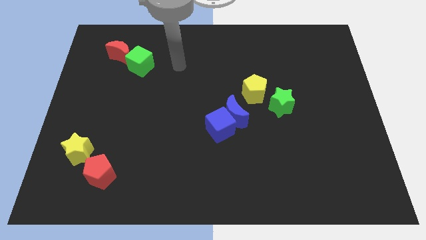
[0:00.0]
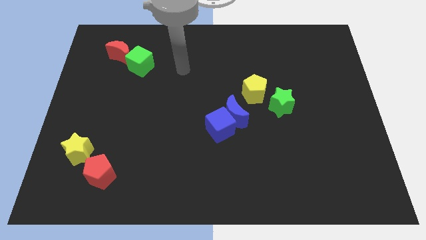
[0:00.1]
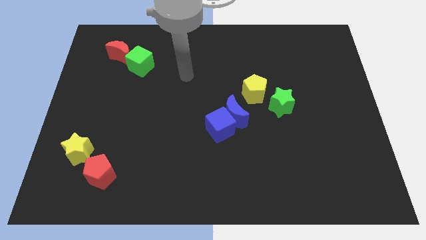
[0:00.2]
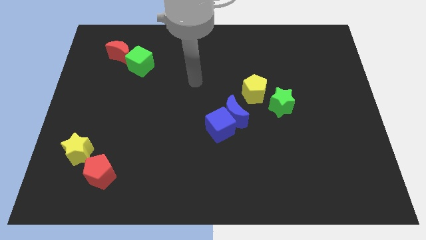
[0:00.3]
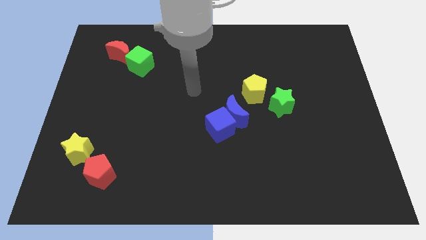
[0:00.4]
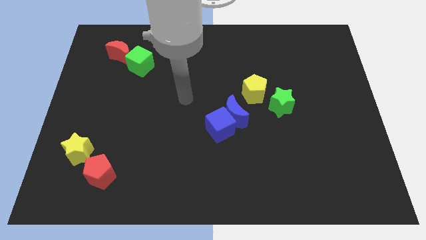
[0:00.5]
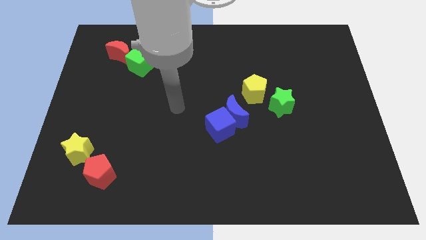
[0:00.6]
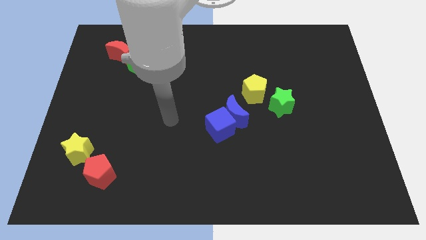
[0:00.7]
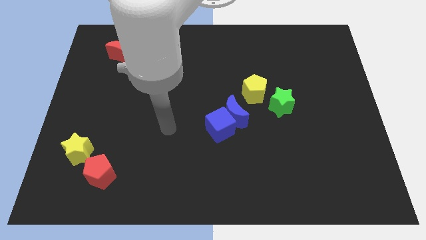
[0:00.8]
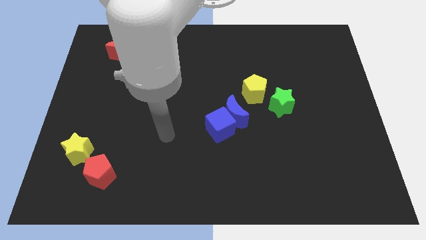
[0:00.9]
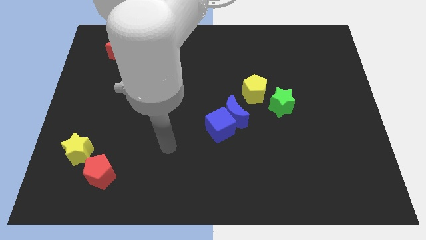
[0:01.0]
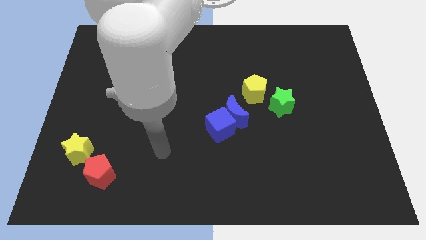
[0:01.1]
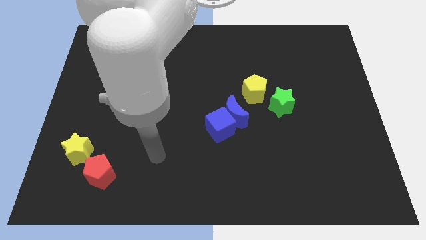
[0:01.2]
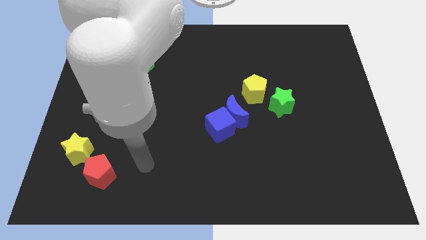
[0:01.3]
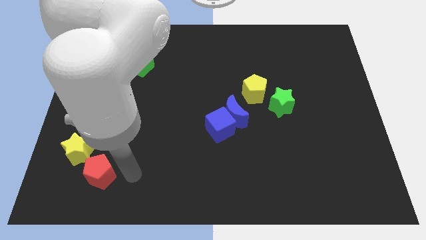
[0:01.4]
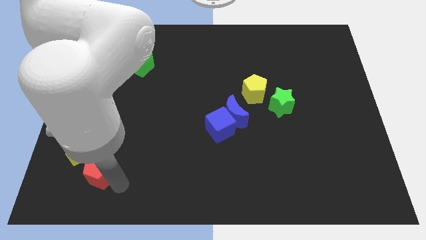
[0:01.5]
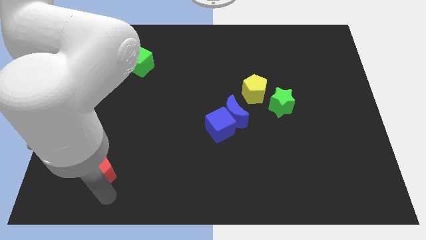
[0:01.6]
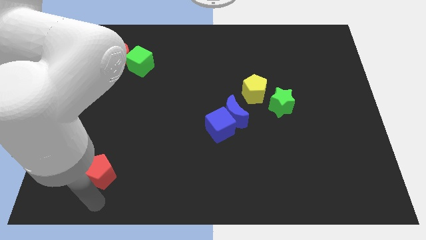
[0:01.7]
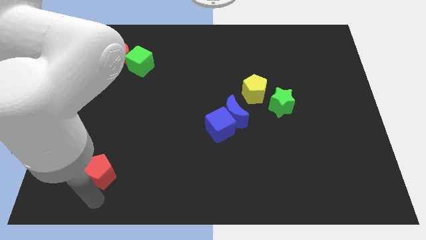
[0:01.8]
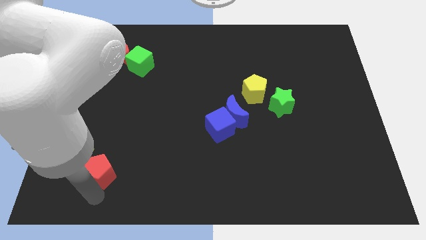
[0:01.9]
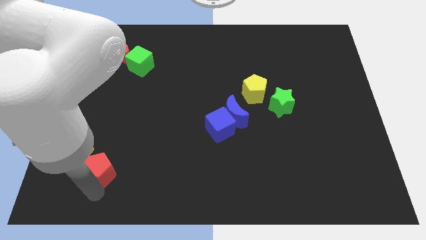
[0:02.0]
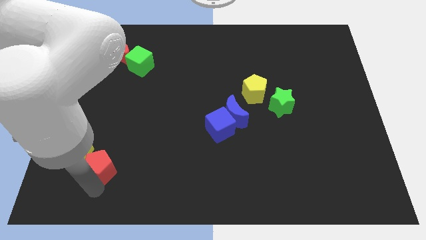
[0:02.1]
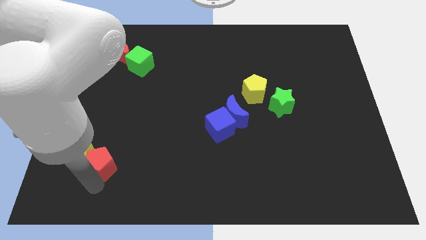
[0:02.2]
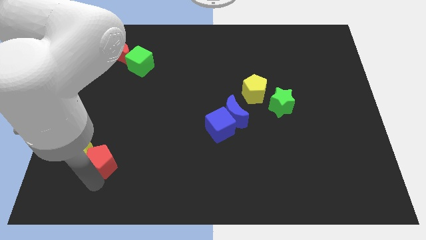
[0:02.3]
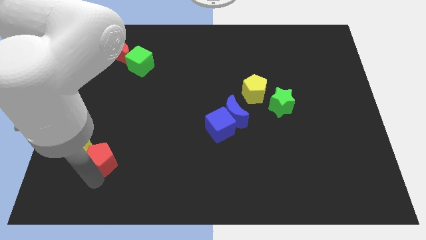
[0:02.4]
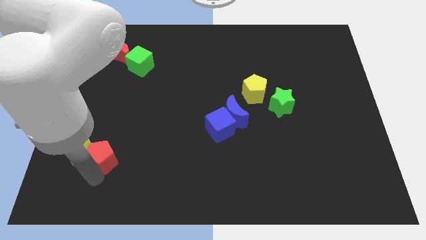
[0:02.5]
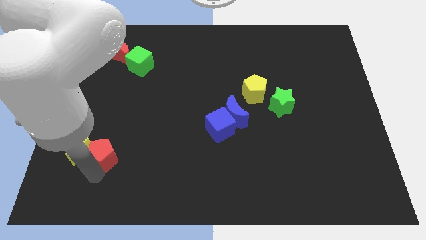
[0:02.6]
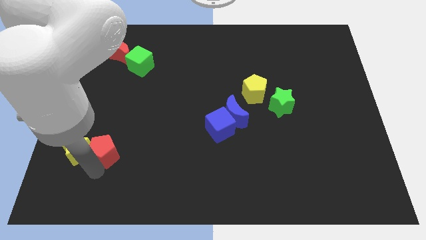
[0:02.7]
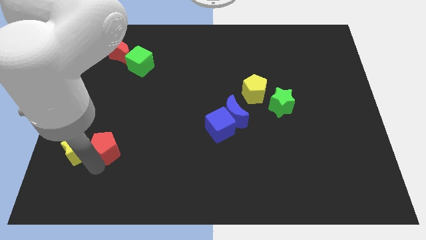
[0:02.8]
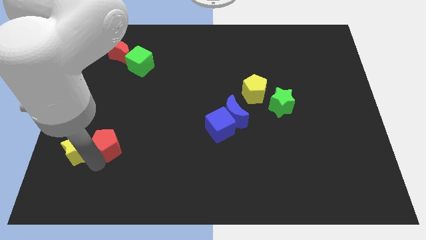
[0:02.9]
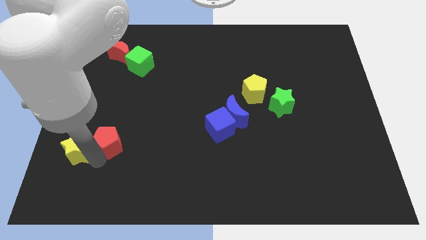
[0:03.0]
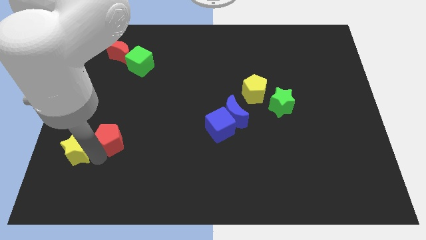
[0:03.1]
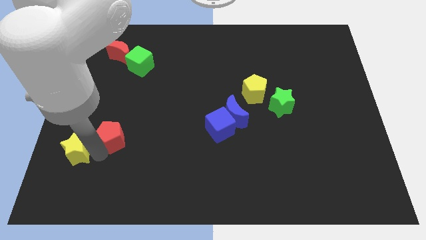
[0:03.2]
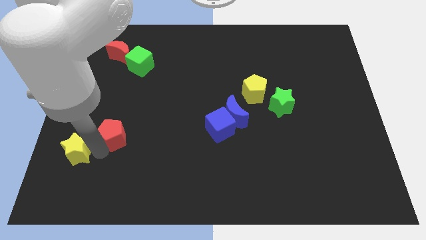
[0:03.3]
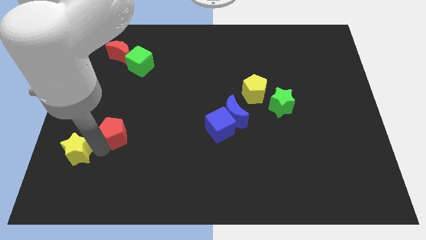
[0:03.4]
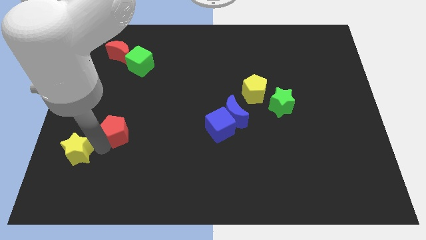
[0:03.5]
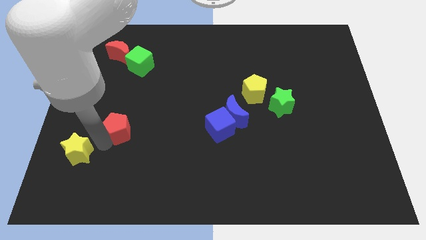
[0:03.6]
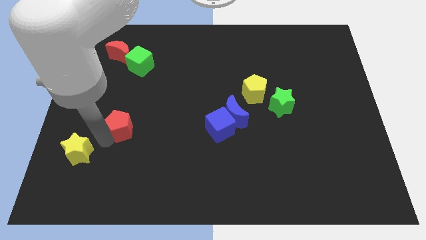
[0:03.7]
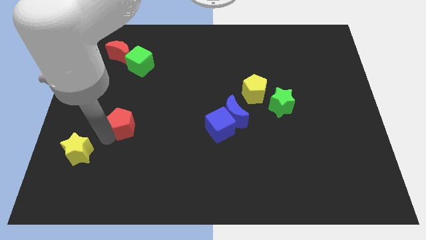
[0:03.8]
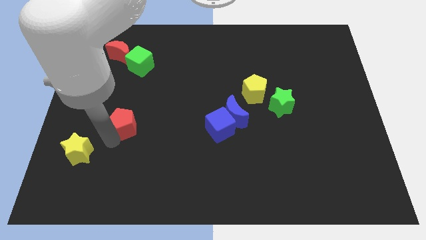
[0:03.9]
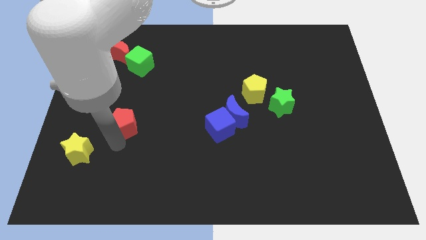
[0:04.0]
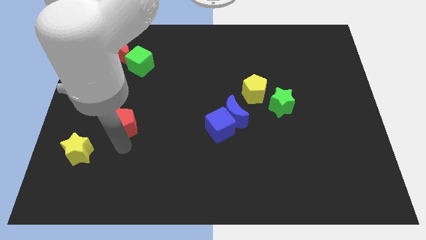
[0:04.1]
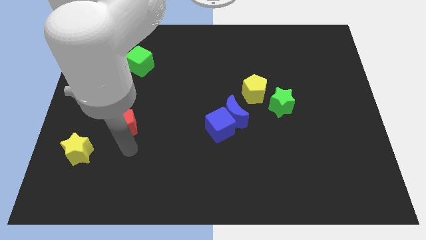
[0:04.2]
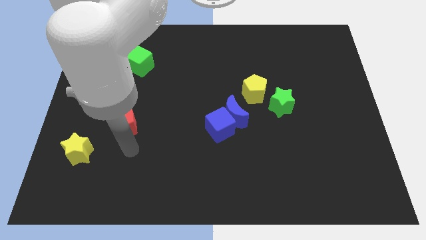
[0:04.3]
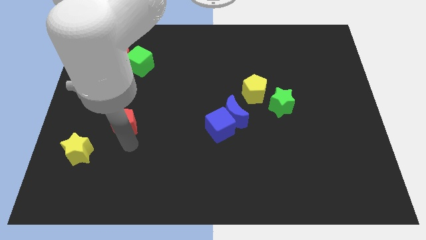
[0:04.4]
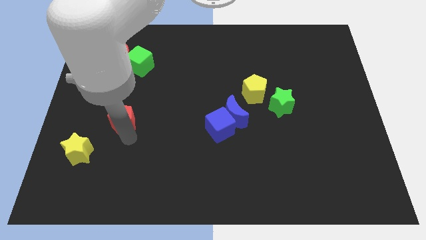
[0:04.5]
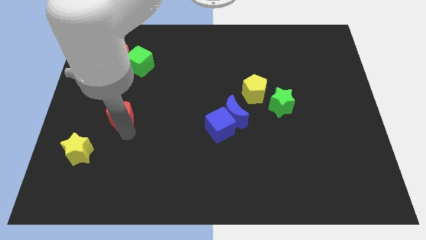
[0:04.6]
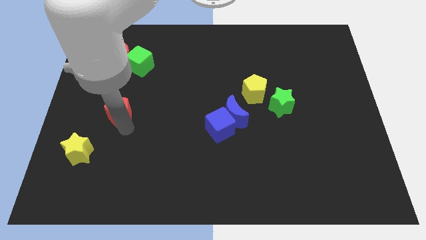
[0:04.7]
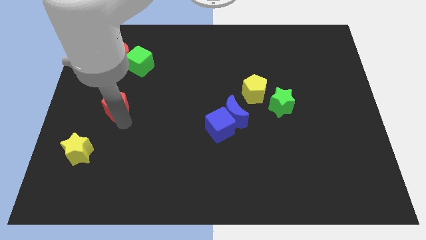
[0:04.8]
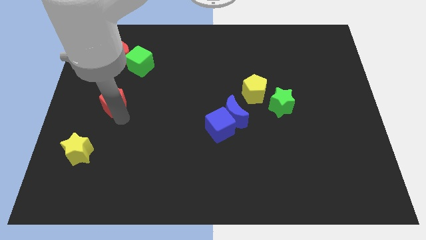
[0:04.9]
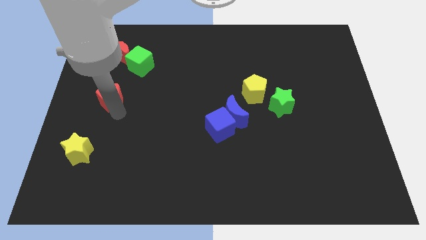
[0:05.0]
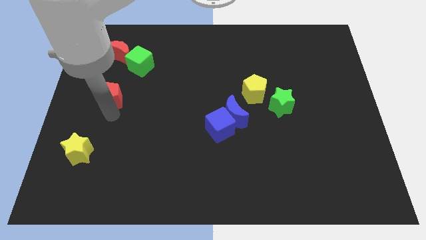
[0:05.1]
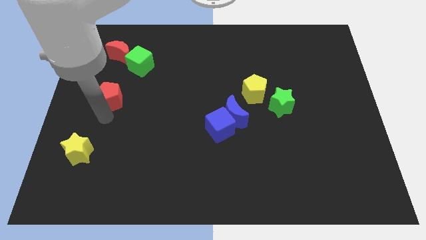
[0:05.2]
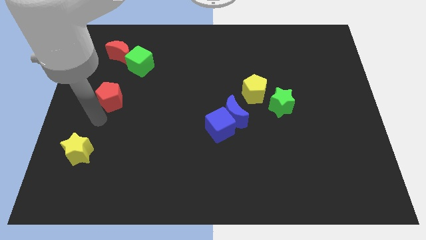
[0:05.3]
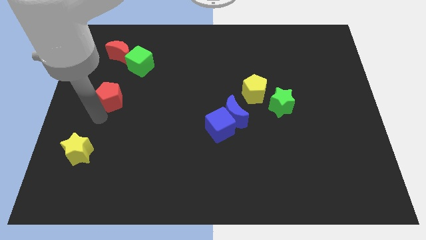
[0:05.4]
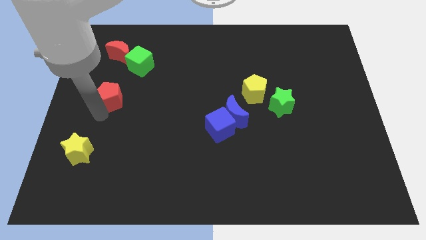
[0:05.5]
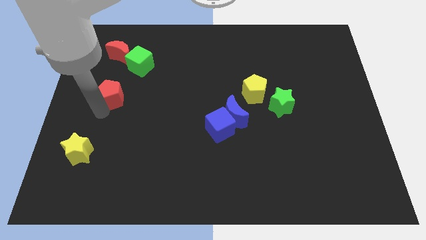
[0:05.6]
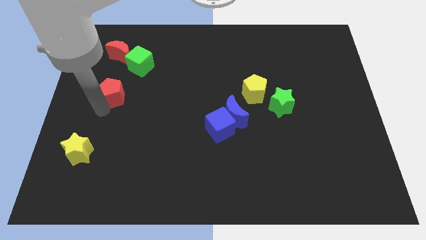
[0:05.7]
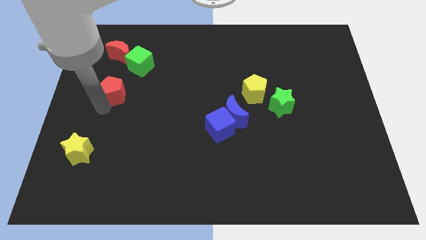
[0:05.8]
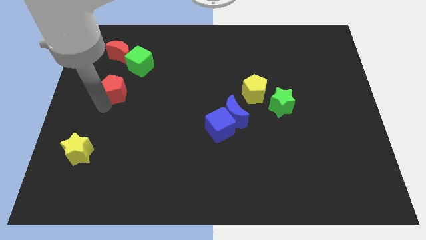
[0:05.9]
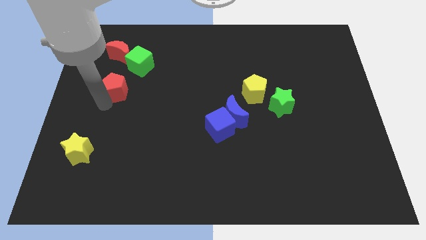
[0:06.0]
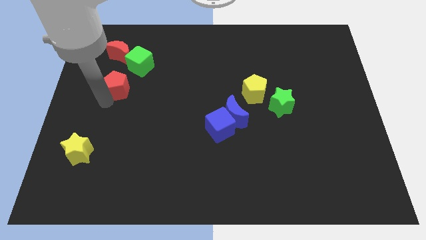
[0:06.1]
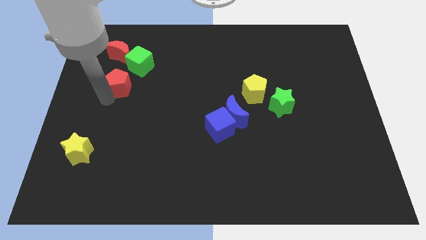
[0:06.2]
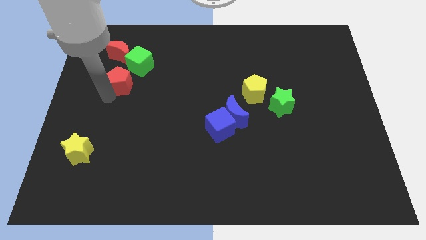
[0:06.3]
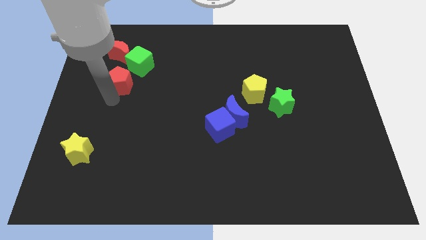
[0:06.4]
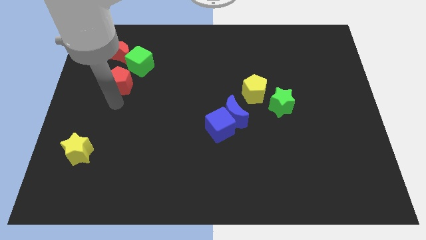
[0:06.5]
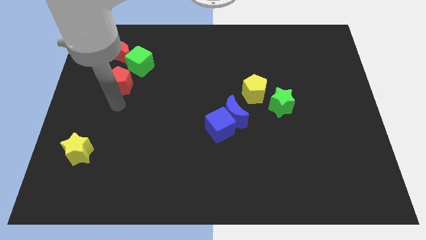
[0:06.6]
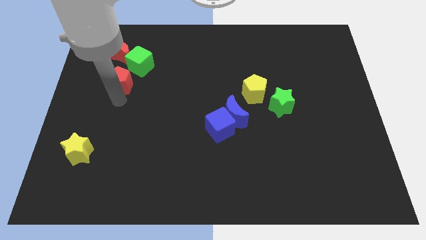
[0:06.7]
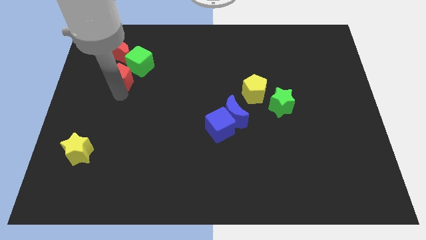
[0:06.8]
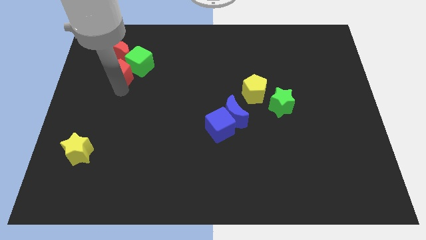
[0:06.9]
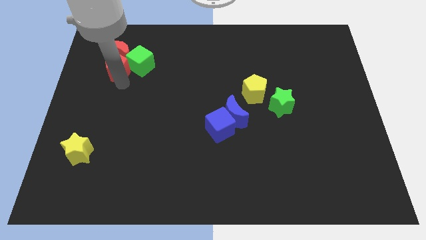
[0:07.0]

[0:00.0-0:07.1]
slide the red pentagon next to the red moon
